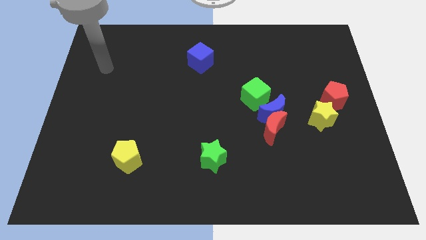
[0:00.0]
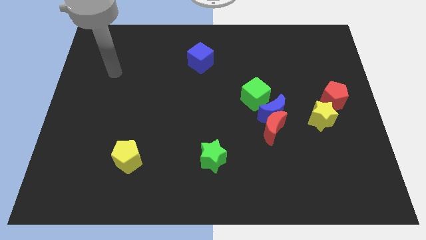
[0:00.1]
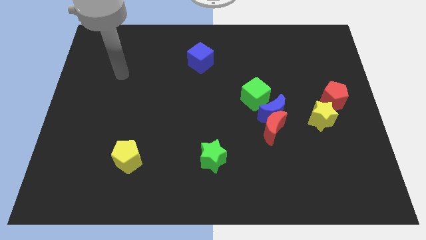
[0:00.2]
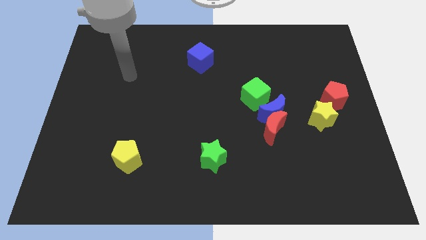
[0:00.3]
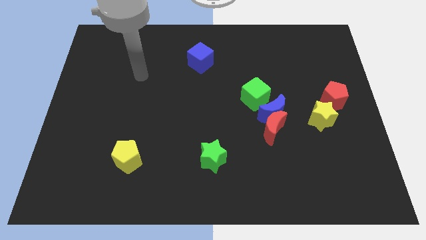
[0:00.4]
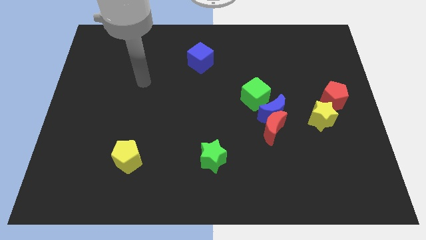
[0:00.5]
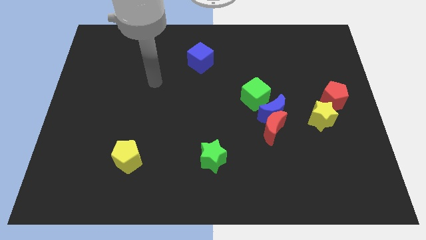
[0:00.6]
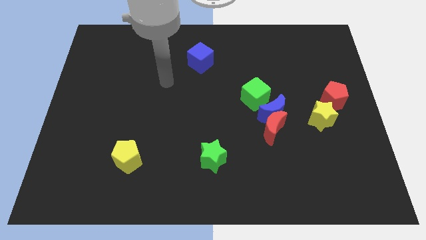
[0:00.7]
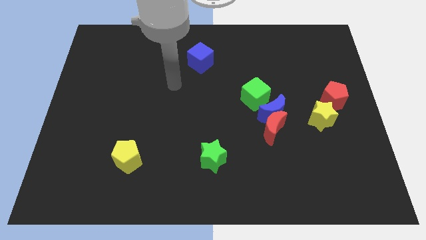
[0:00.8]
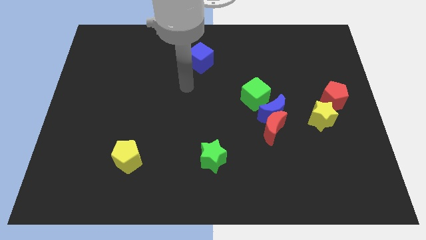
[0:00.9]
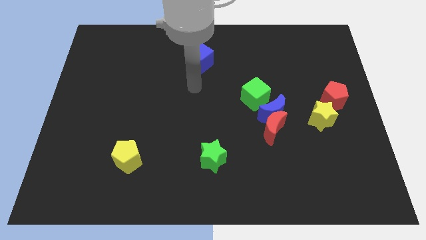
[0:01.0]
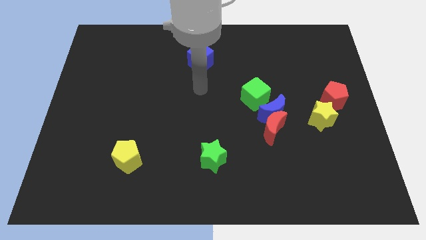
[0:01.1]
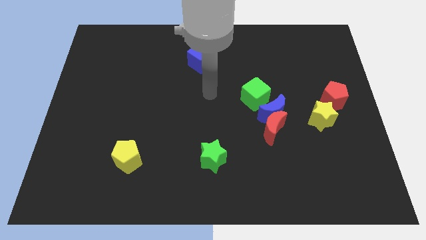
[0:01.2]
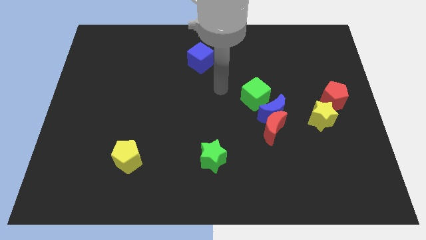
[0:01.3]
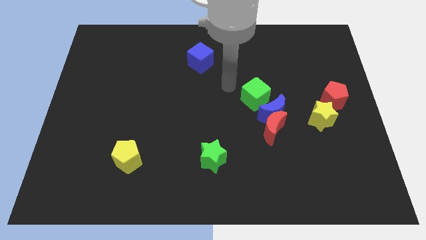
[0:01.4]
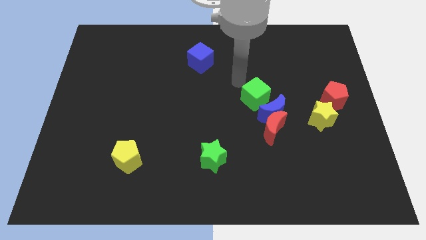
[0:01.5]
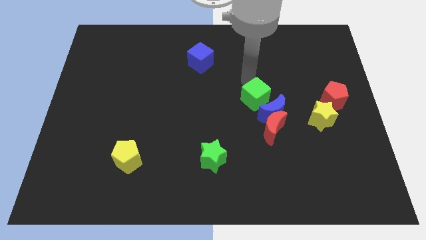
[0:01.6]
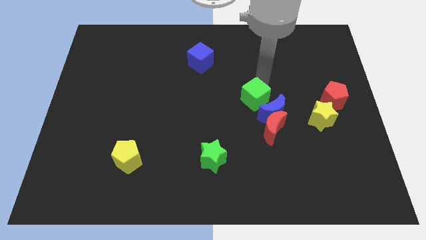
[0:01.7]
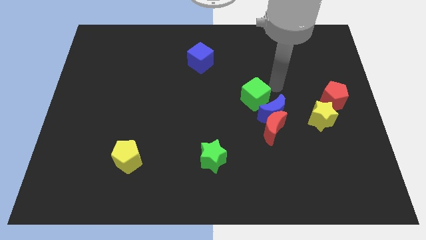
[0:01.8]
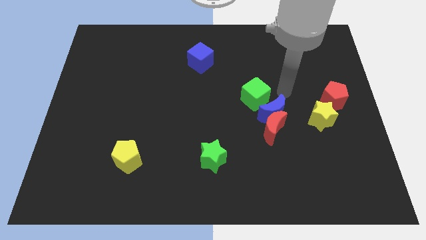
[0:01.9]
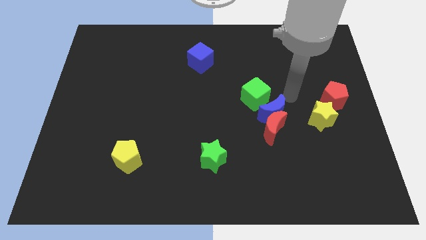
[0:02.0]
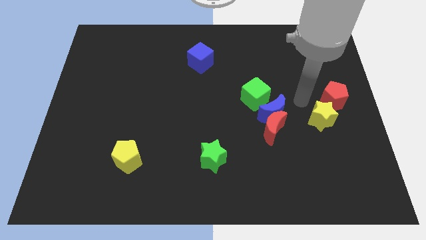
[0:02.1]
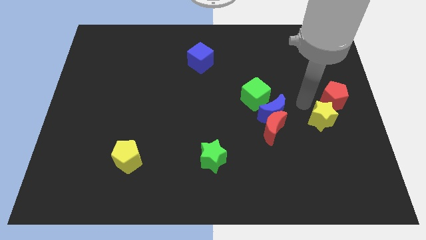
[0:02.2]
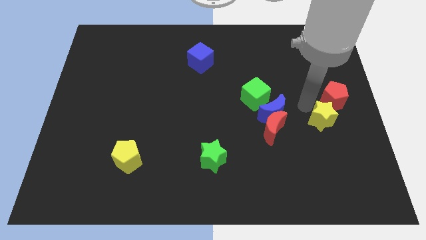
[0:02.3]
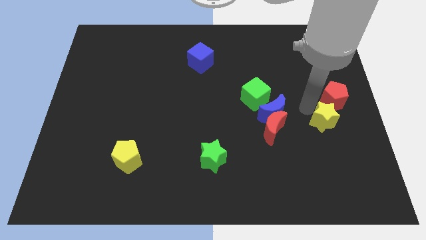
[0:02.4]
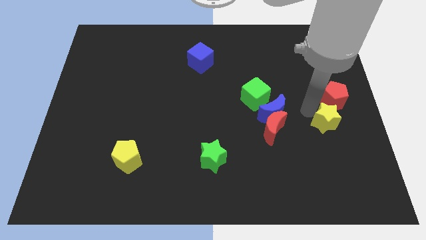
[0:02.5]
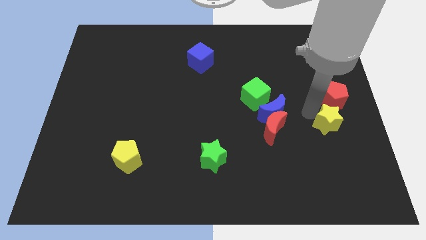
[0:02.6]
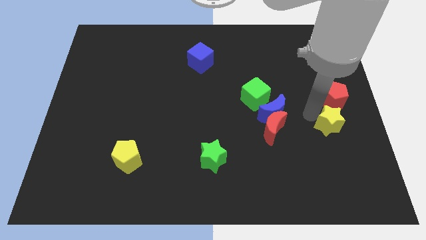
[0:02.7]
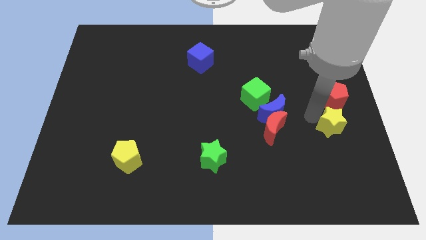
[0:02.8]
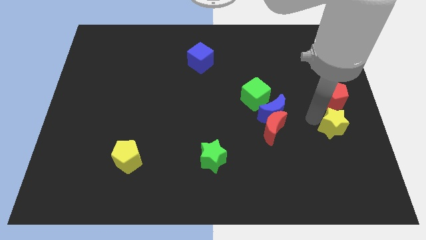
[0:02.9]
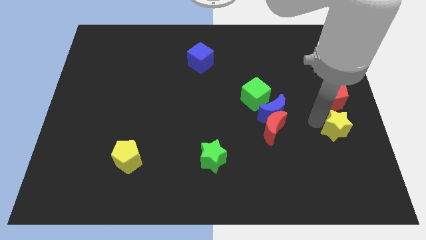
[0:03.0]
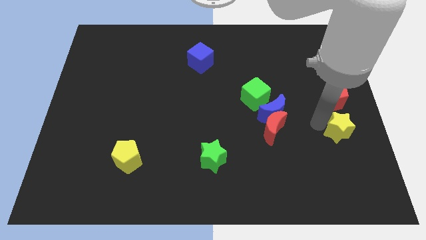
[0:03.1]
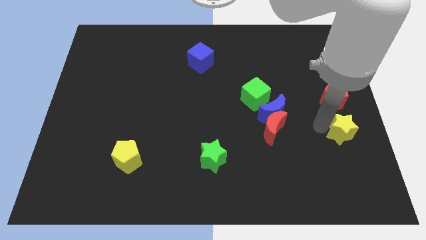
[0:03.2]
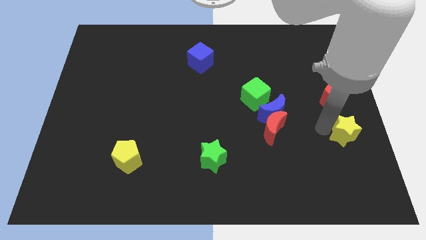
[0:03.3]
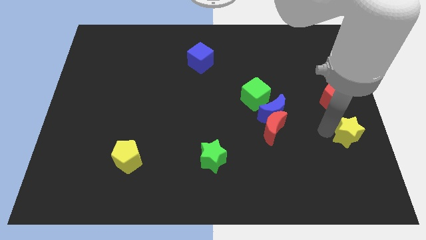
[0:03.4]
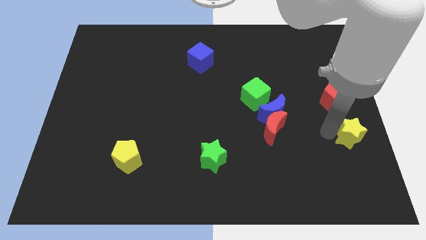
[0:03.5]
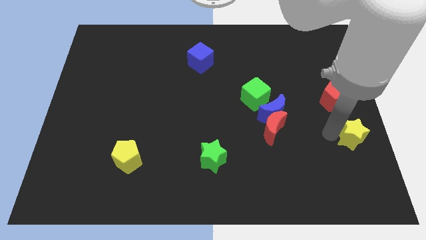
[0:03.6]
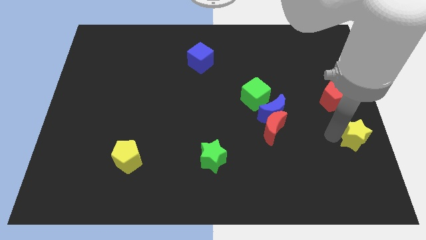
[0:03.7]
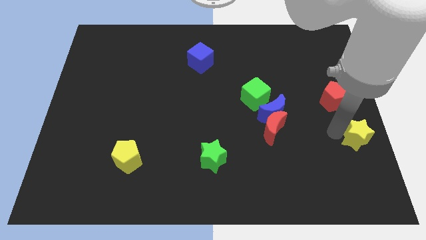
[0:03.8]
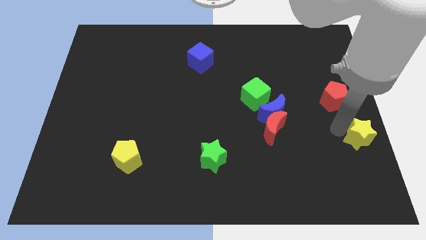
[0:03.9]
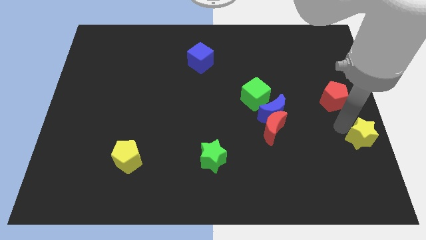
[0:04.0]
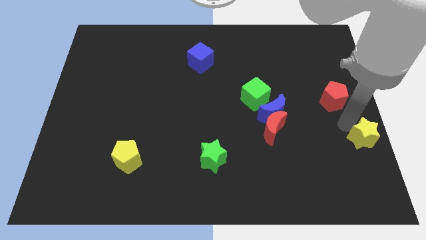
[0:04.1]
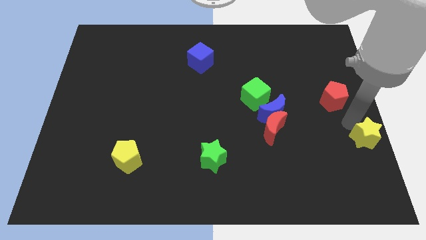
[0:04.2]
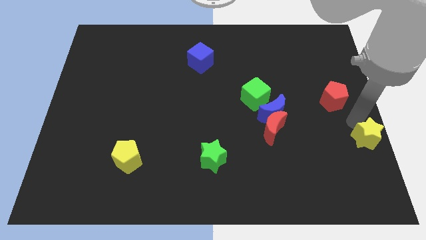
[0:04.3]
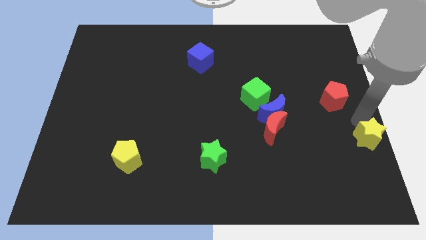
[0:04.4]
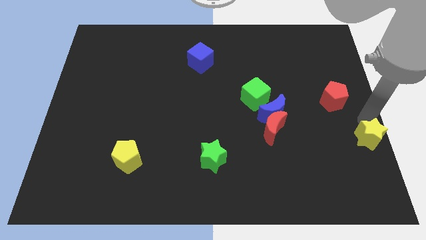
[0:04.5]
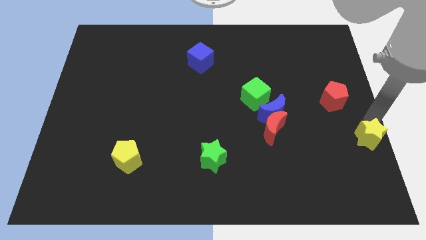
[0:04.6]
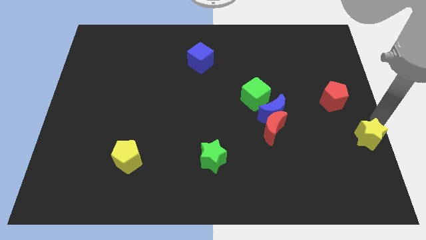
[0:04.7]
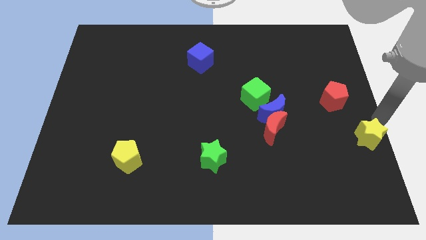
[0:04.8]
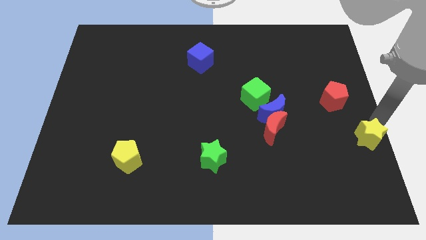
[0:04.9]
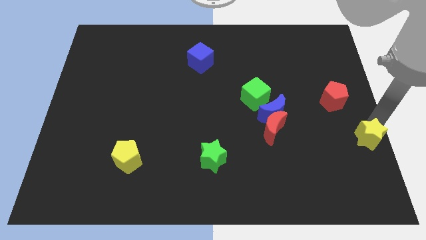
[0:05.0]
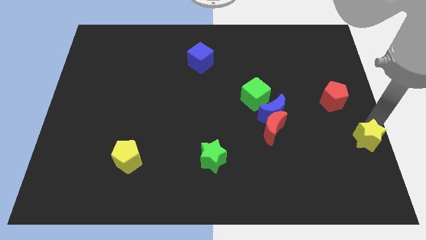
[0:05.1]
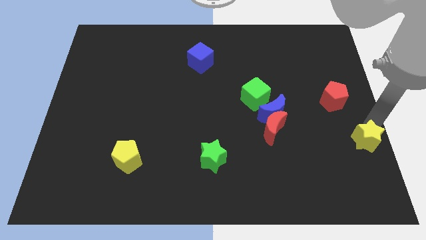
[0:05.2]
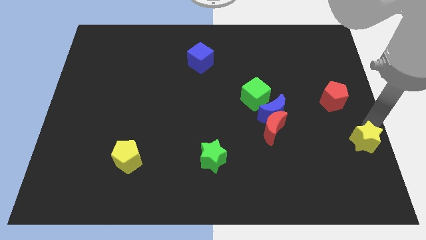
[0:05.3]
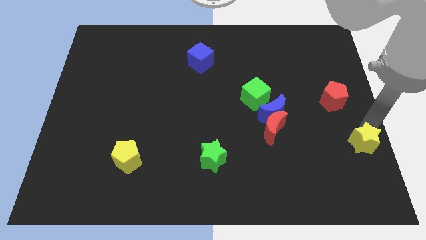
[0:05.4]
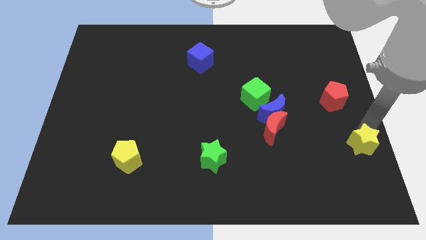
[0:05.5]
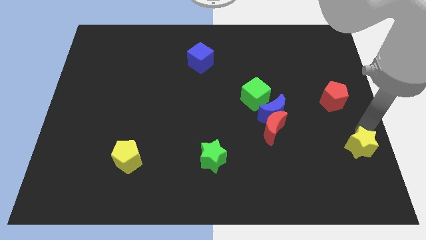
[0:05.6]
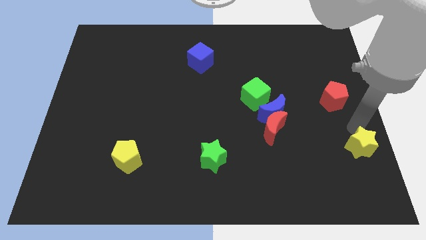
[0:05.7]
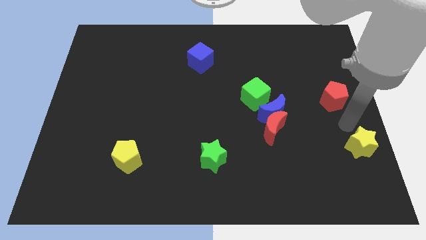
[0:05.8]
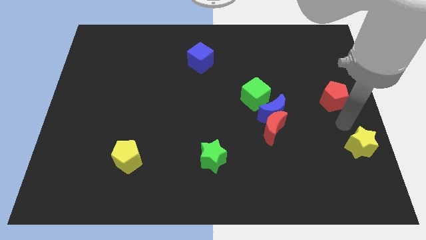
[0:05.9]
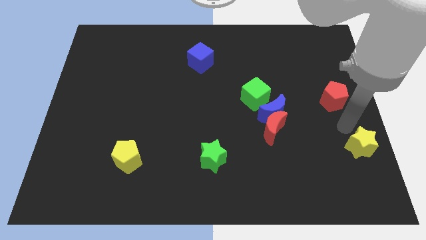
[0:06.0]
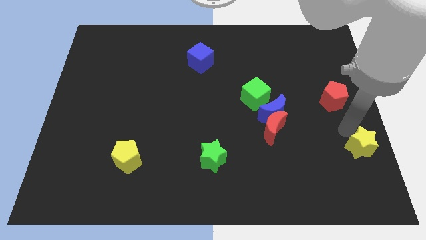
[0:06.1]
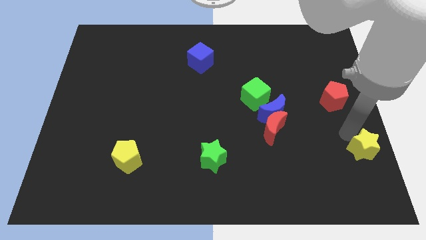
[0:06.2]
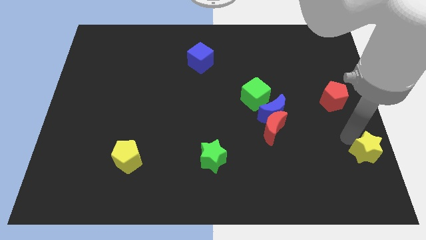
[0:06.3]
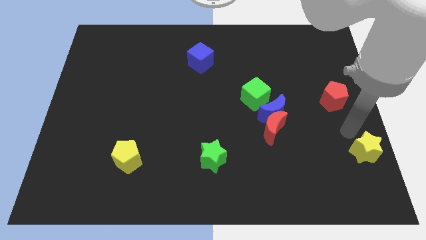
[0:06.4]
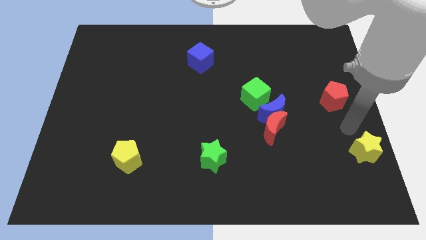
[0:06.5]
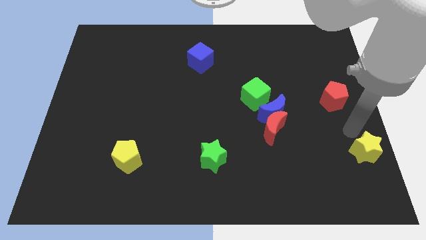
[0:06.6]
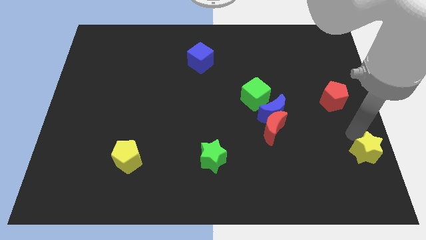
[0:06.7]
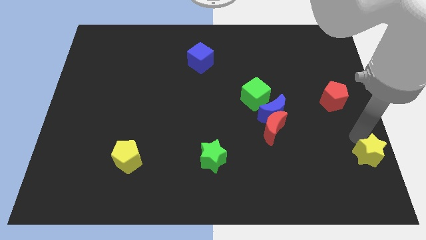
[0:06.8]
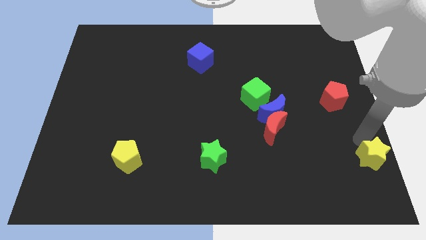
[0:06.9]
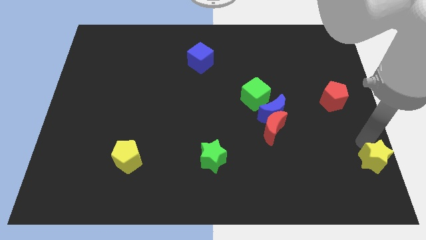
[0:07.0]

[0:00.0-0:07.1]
move the yellow star to the lower right corner
